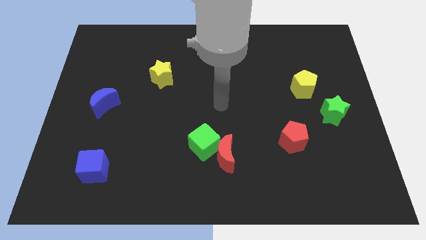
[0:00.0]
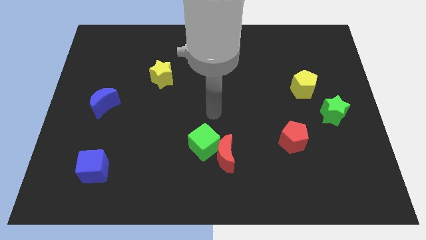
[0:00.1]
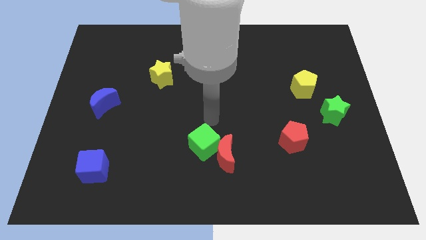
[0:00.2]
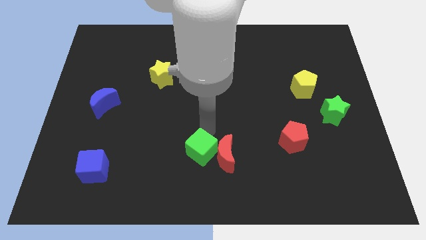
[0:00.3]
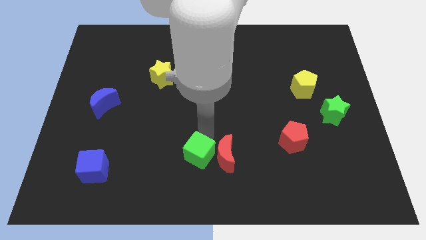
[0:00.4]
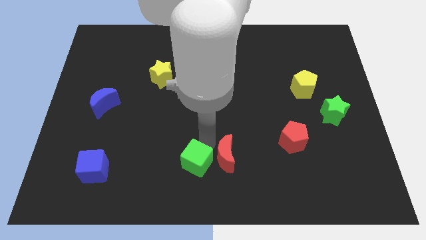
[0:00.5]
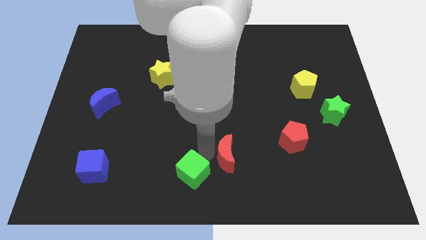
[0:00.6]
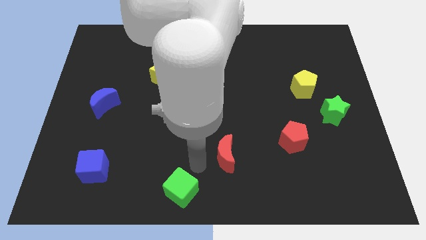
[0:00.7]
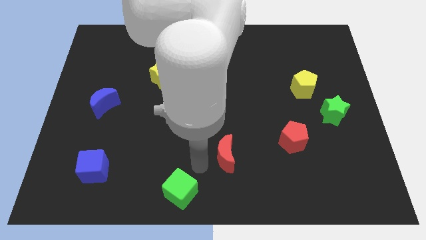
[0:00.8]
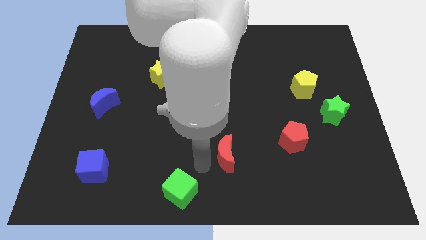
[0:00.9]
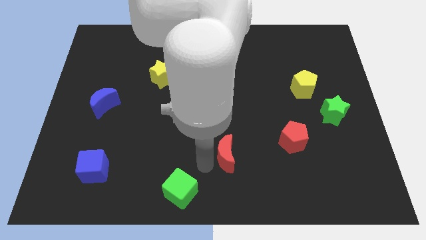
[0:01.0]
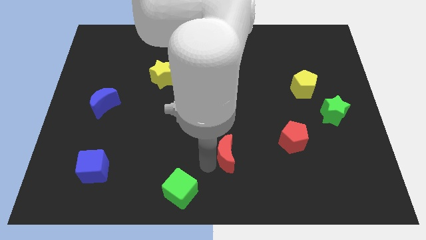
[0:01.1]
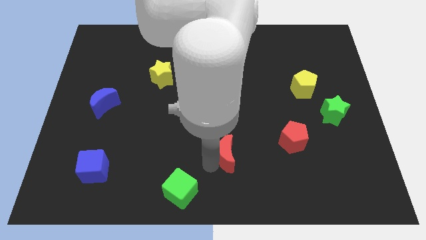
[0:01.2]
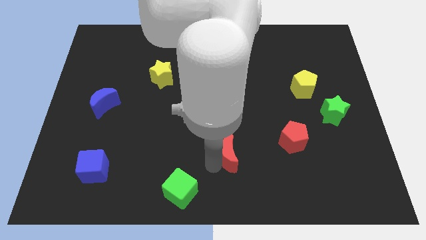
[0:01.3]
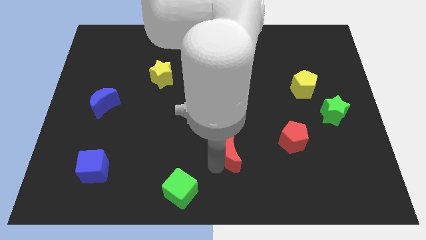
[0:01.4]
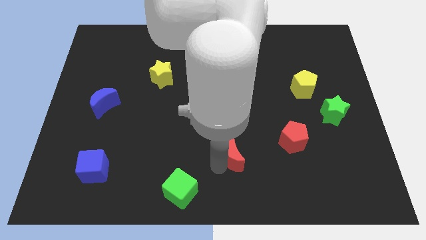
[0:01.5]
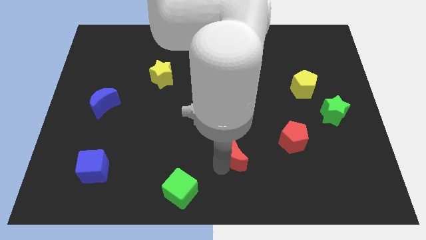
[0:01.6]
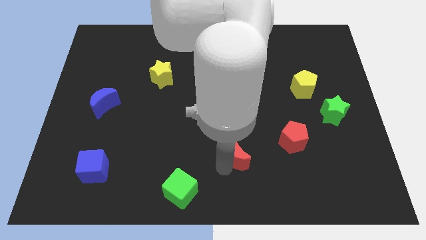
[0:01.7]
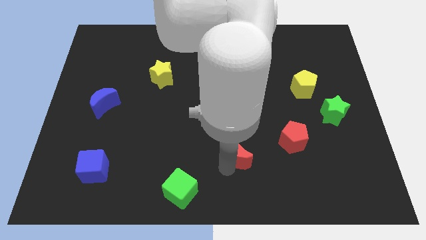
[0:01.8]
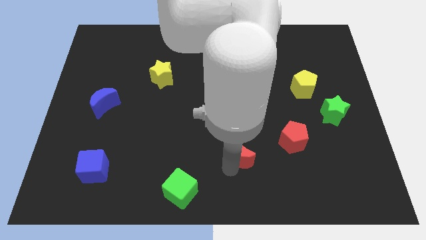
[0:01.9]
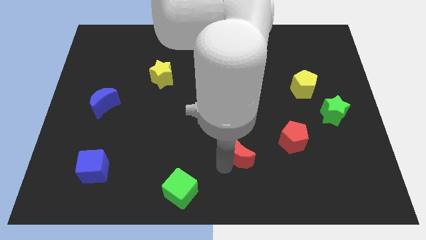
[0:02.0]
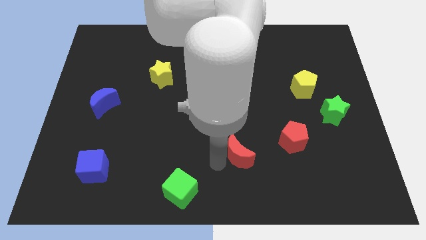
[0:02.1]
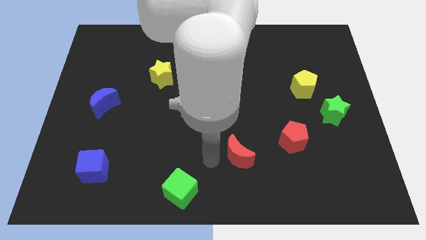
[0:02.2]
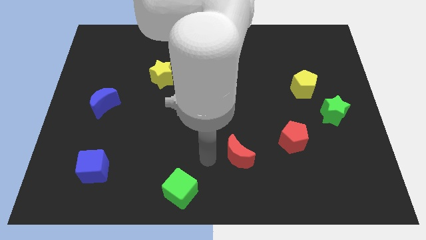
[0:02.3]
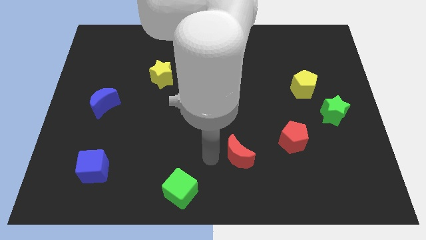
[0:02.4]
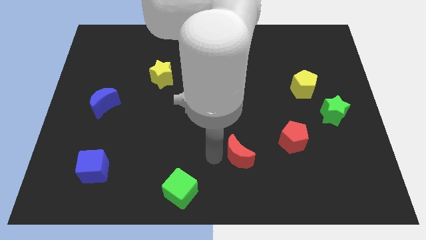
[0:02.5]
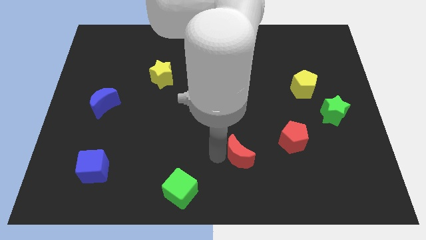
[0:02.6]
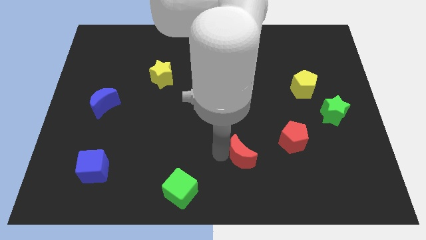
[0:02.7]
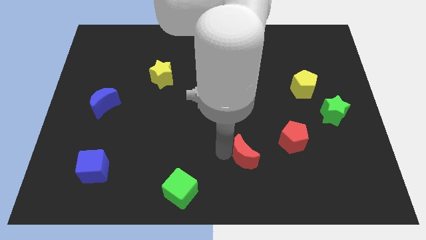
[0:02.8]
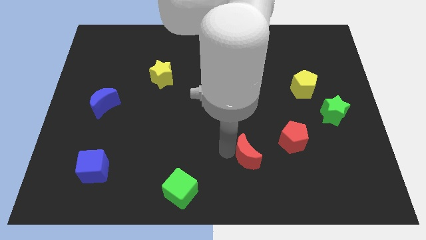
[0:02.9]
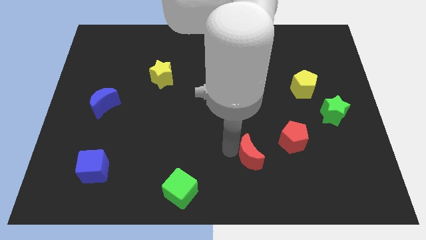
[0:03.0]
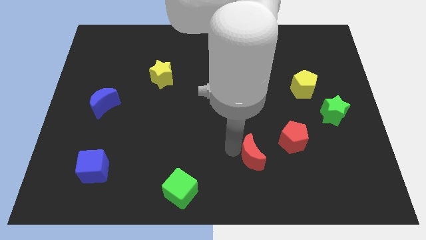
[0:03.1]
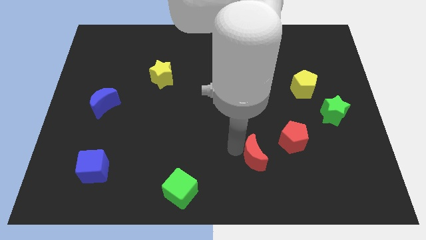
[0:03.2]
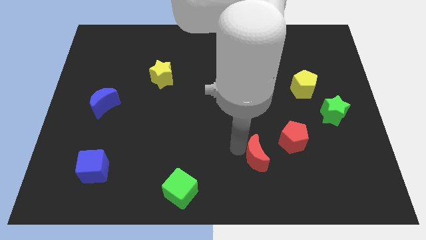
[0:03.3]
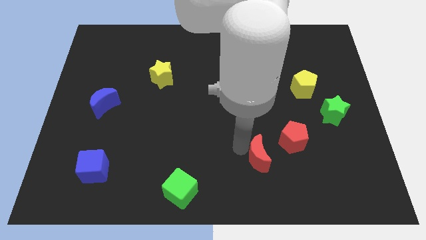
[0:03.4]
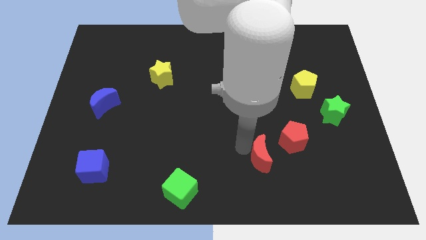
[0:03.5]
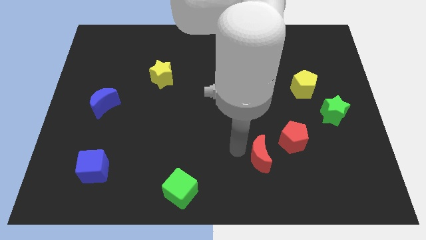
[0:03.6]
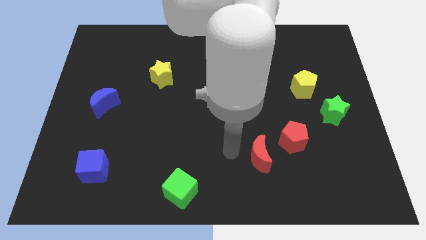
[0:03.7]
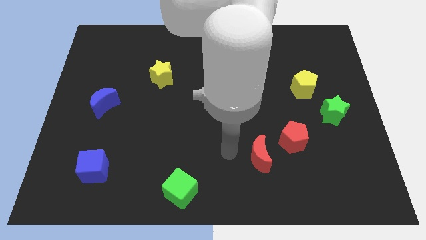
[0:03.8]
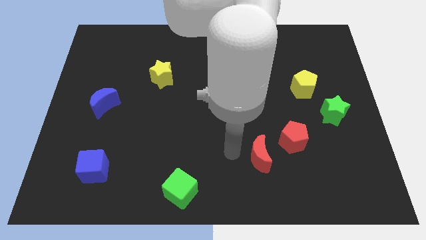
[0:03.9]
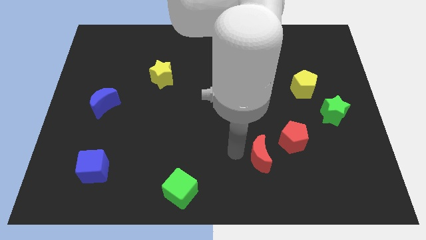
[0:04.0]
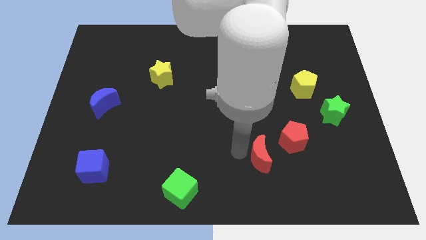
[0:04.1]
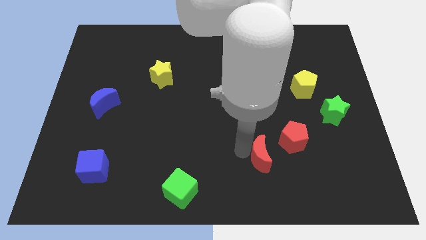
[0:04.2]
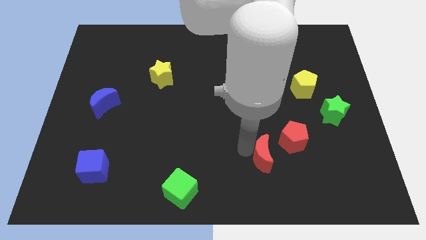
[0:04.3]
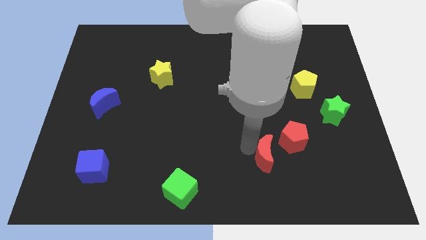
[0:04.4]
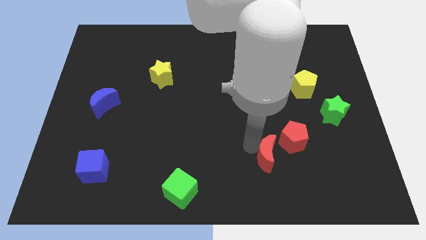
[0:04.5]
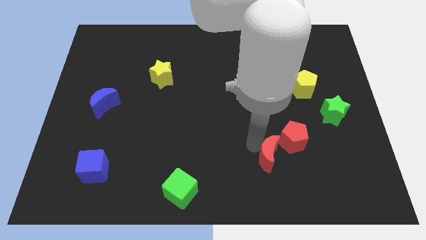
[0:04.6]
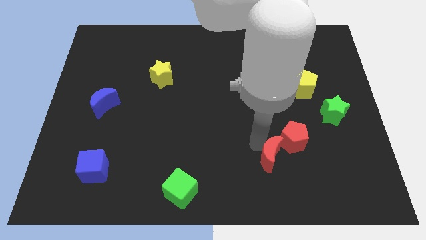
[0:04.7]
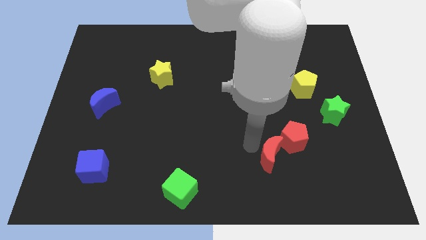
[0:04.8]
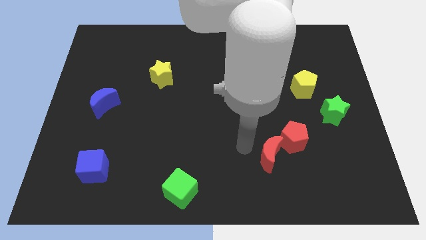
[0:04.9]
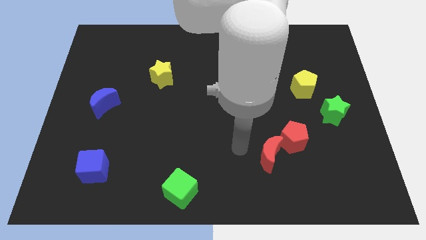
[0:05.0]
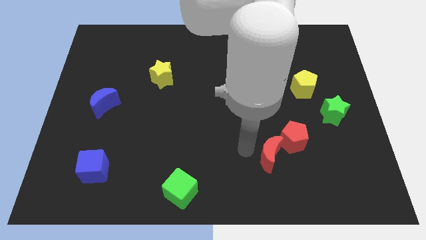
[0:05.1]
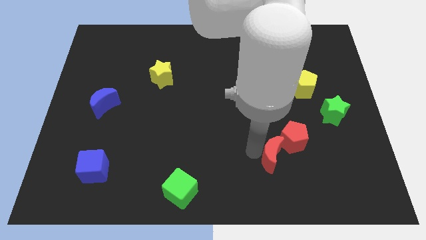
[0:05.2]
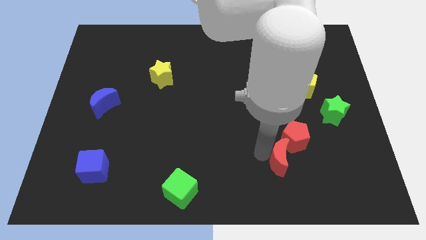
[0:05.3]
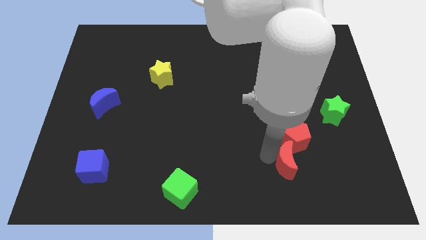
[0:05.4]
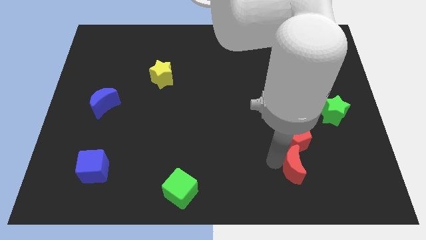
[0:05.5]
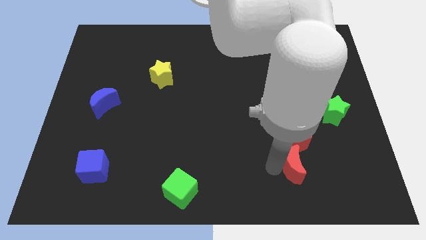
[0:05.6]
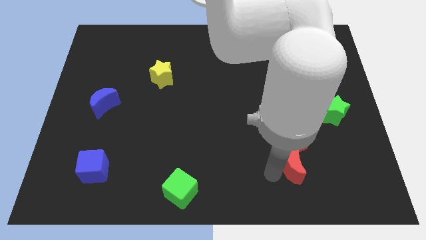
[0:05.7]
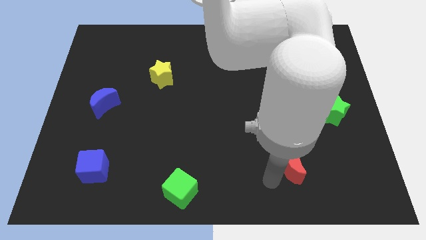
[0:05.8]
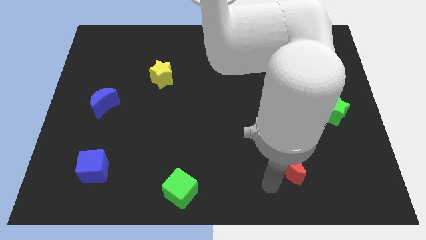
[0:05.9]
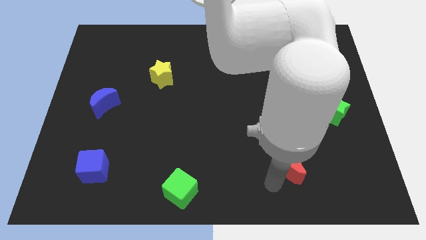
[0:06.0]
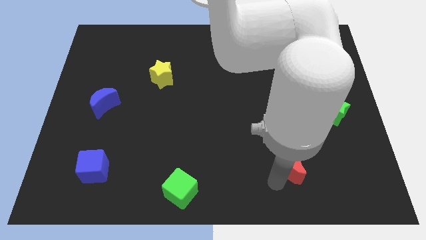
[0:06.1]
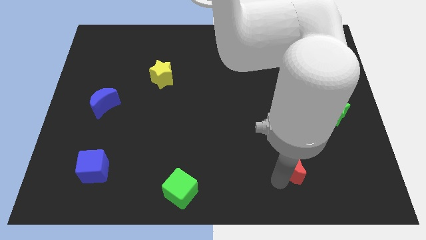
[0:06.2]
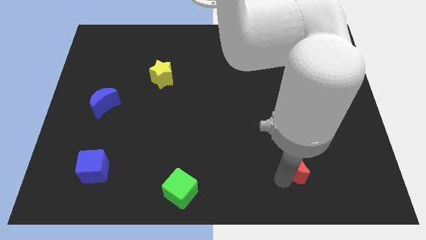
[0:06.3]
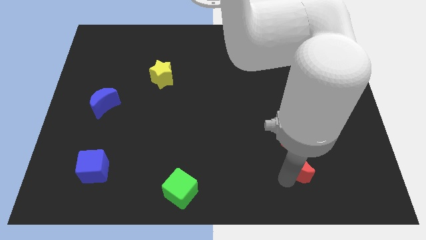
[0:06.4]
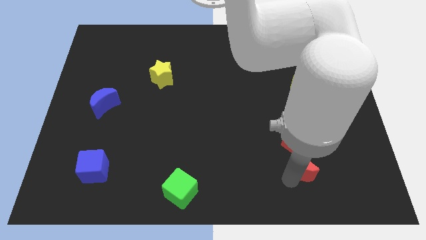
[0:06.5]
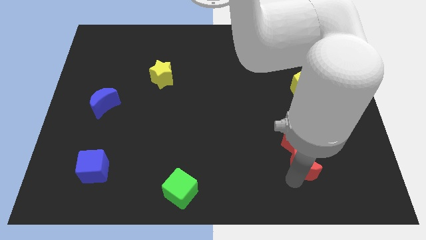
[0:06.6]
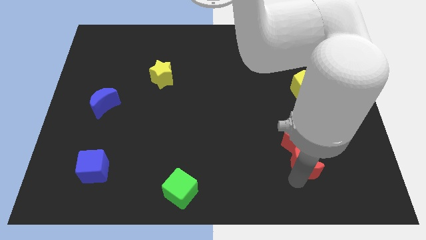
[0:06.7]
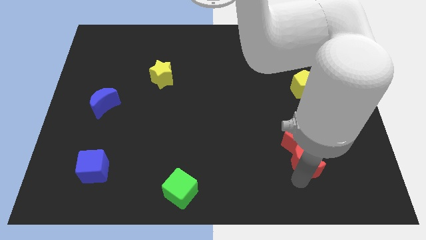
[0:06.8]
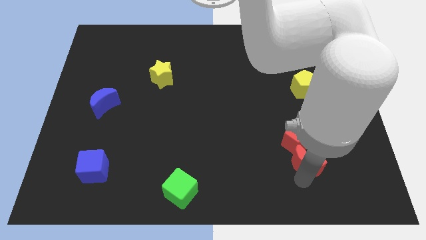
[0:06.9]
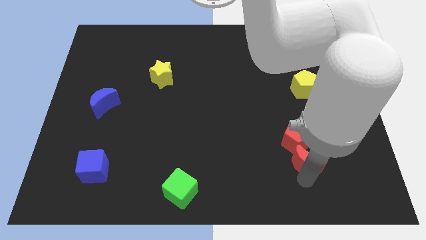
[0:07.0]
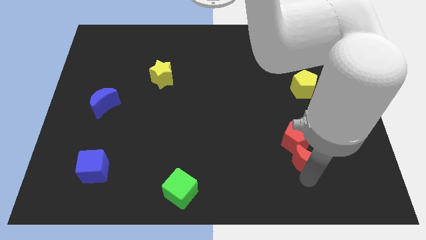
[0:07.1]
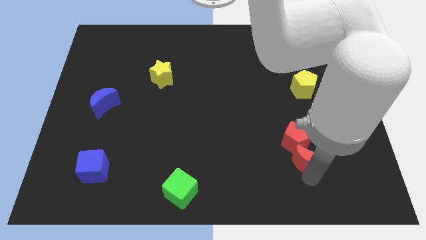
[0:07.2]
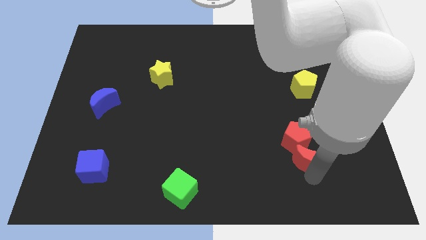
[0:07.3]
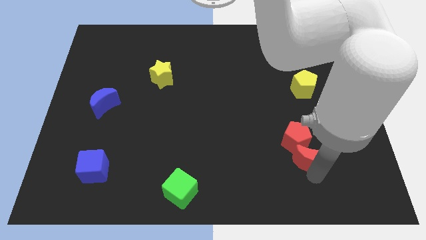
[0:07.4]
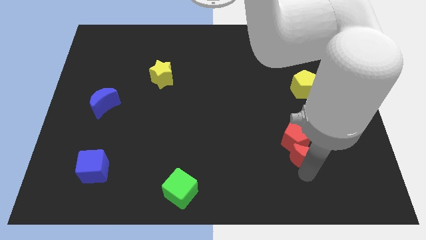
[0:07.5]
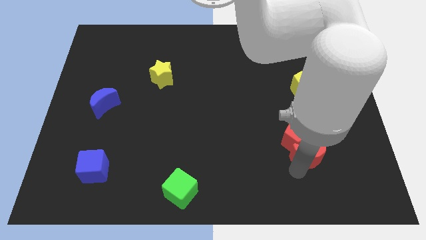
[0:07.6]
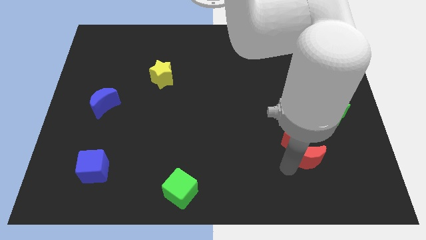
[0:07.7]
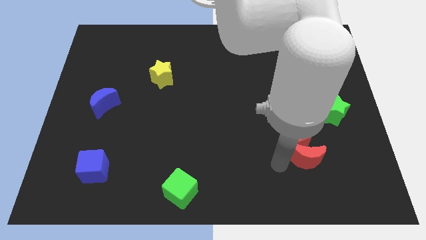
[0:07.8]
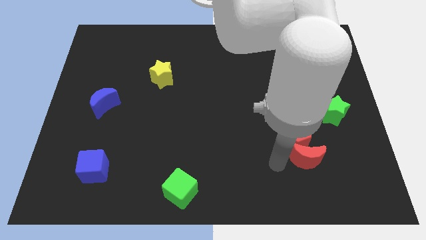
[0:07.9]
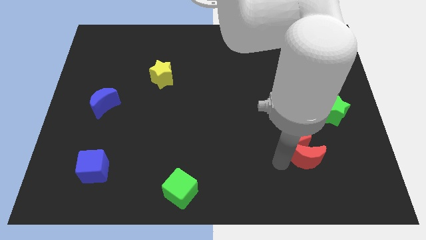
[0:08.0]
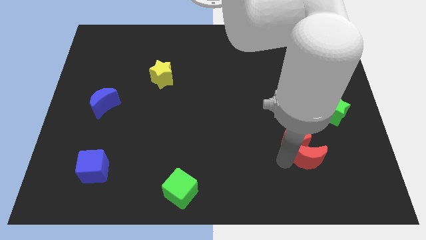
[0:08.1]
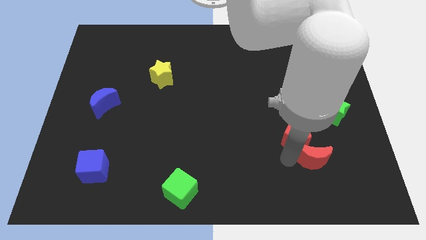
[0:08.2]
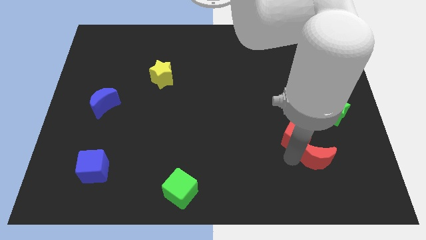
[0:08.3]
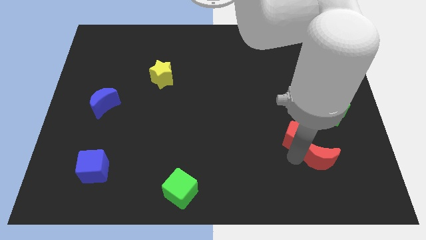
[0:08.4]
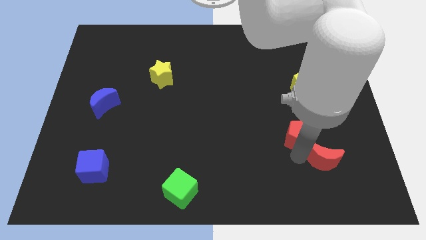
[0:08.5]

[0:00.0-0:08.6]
slide the red moon below the green star

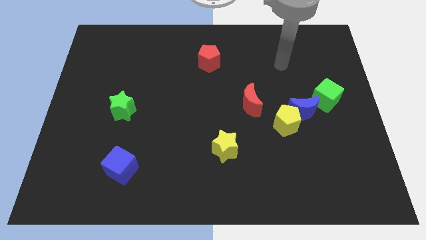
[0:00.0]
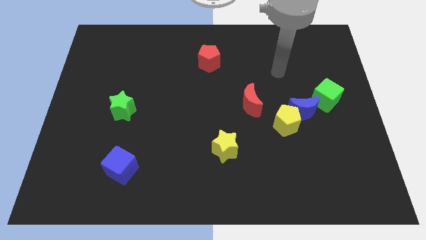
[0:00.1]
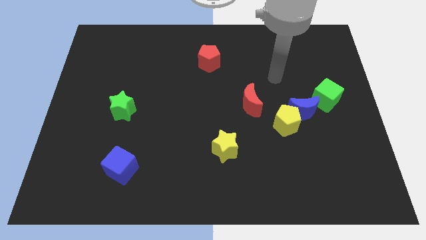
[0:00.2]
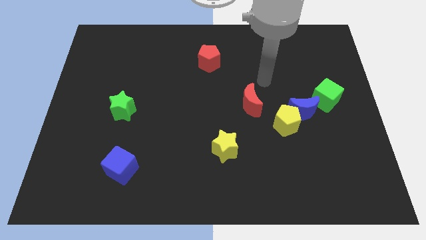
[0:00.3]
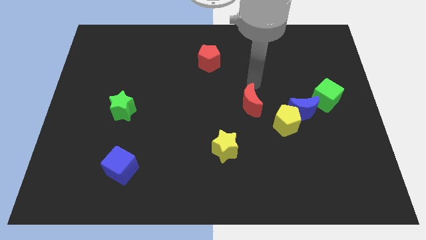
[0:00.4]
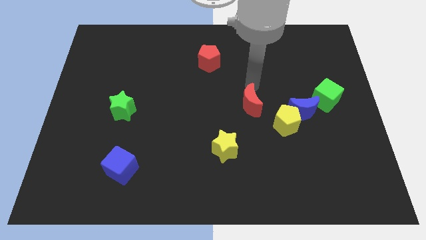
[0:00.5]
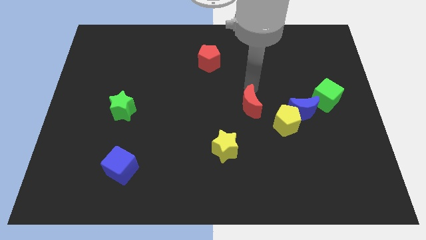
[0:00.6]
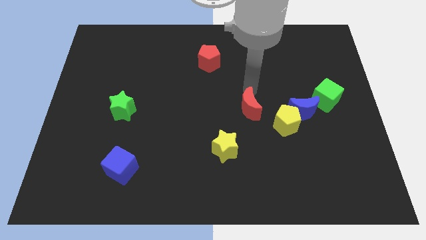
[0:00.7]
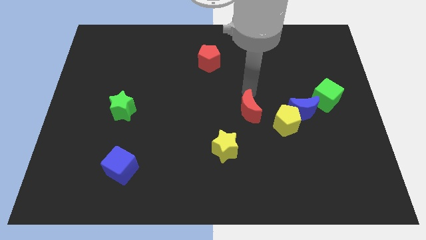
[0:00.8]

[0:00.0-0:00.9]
slide the red moon to the top right side of the yellow star
